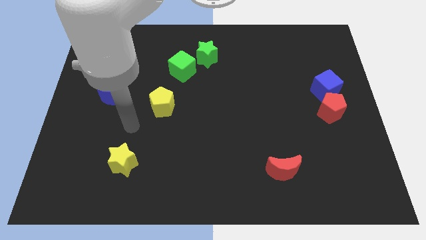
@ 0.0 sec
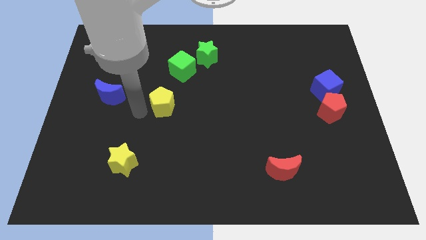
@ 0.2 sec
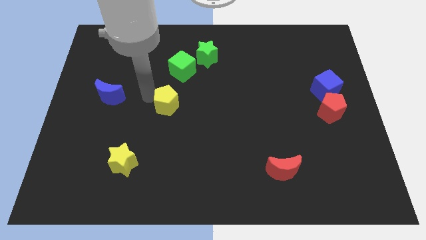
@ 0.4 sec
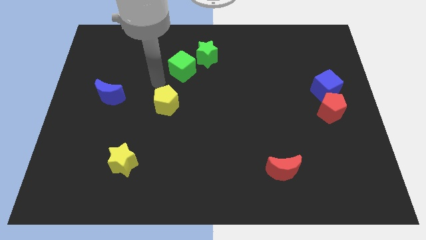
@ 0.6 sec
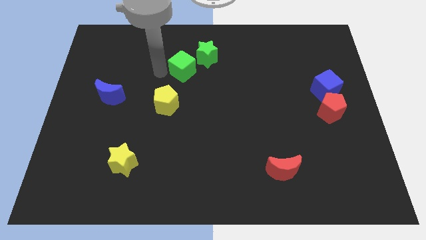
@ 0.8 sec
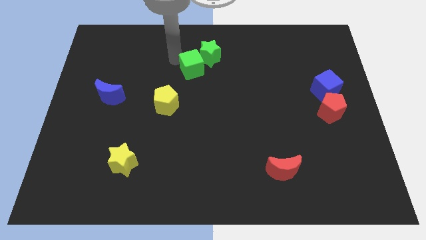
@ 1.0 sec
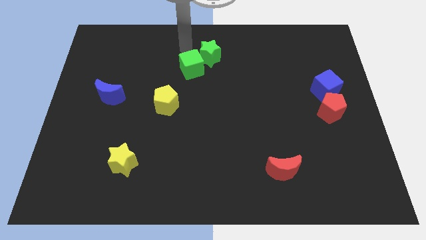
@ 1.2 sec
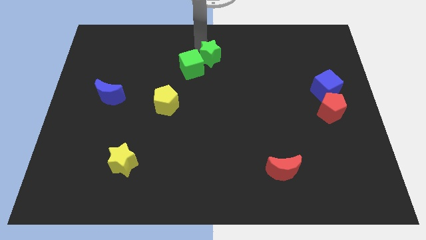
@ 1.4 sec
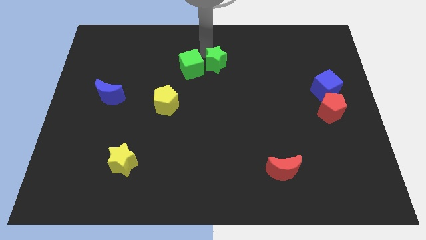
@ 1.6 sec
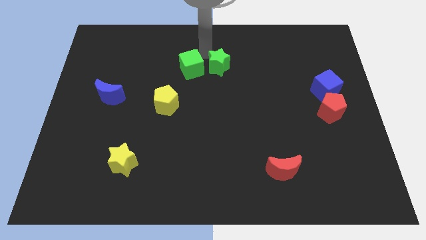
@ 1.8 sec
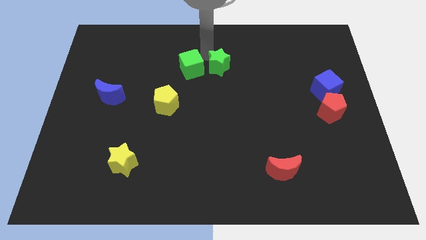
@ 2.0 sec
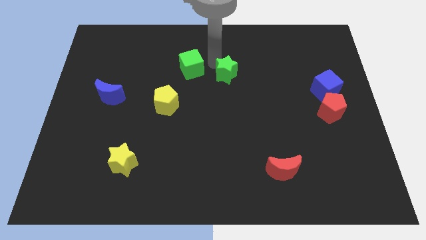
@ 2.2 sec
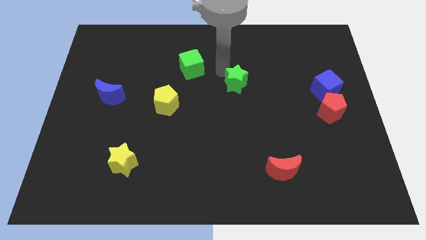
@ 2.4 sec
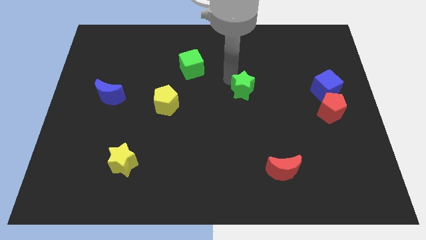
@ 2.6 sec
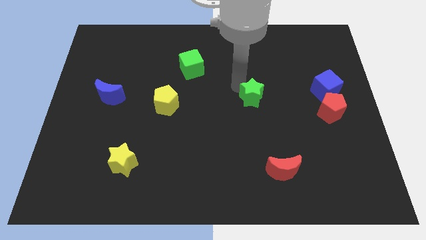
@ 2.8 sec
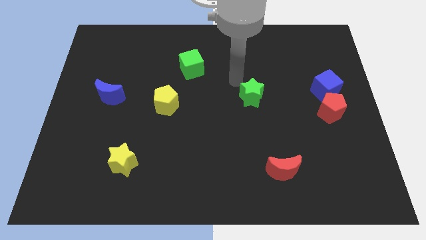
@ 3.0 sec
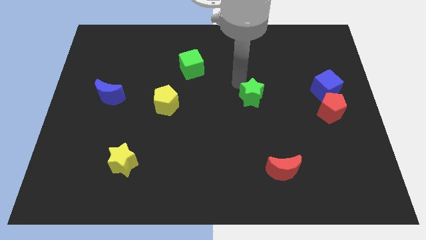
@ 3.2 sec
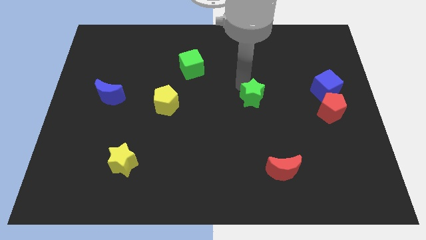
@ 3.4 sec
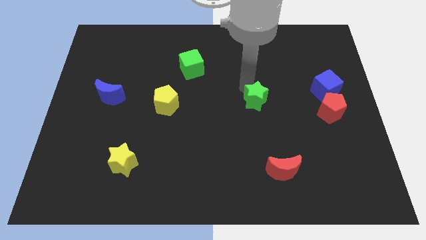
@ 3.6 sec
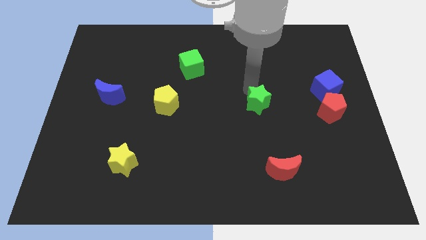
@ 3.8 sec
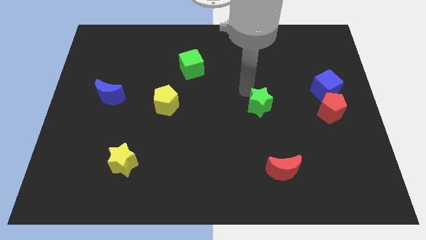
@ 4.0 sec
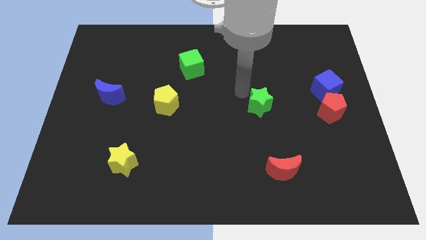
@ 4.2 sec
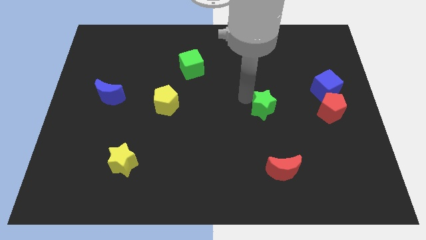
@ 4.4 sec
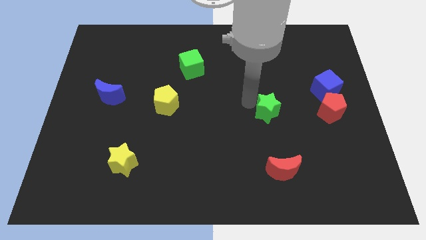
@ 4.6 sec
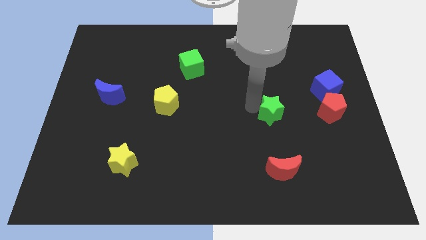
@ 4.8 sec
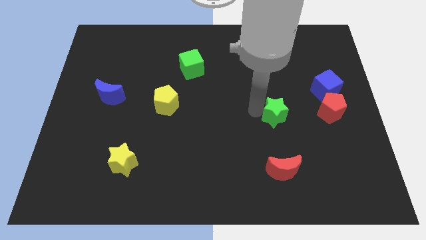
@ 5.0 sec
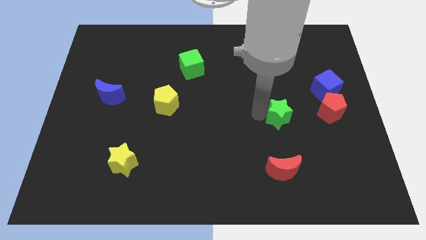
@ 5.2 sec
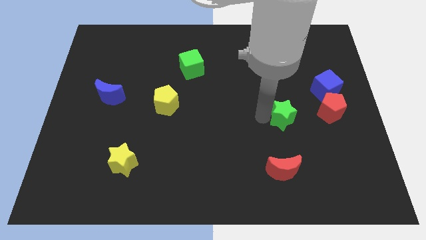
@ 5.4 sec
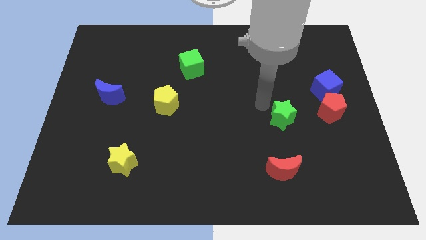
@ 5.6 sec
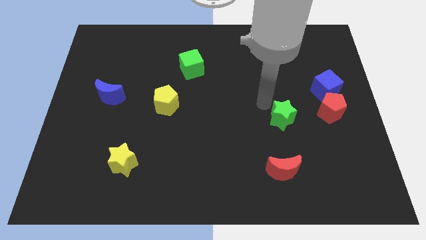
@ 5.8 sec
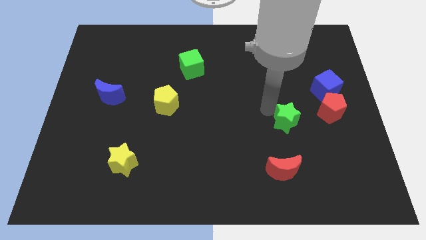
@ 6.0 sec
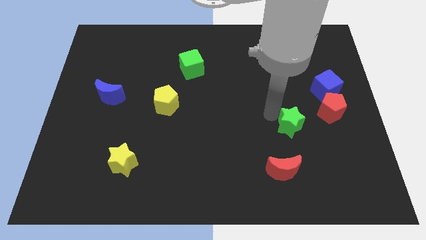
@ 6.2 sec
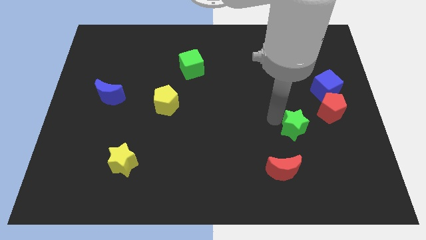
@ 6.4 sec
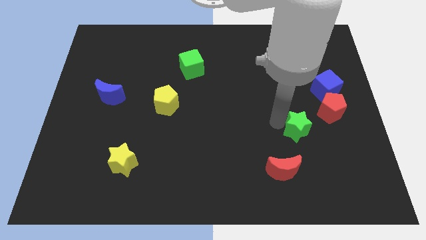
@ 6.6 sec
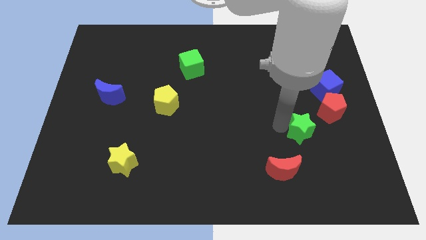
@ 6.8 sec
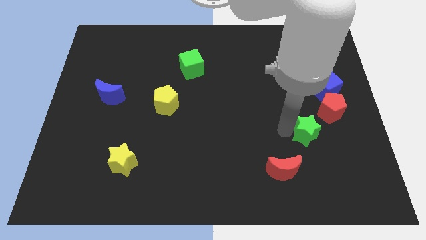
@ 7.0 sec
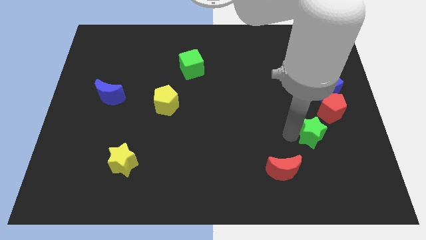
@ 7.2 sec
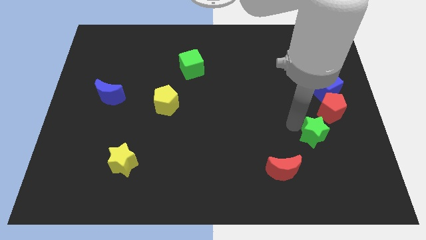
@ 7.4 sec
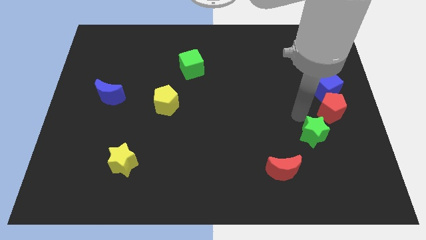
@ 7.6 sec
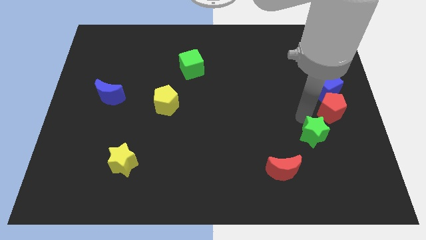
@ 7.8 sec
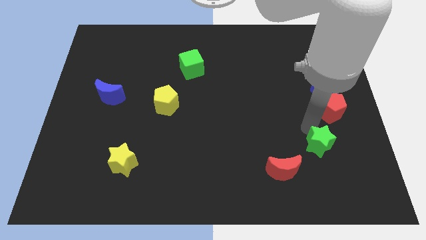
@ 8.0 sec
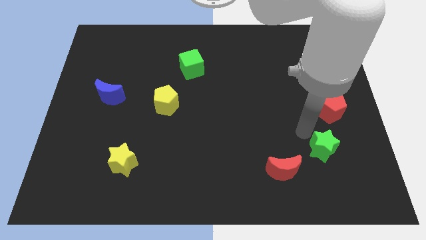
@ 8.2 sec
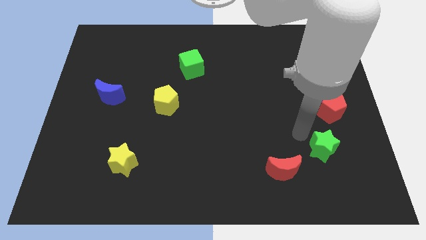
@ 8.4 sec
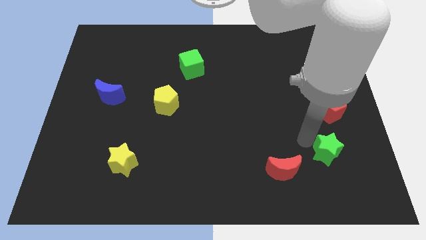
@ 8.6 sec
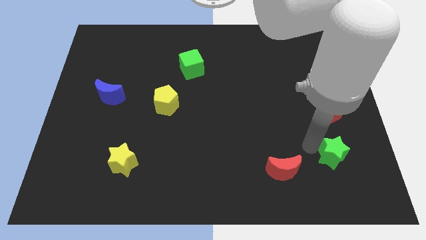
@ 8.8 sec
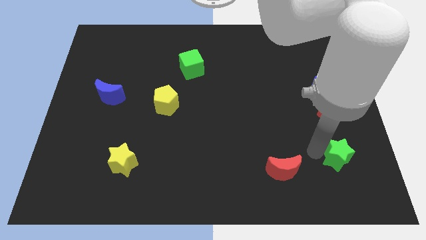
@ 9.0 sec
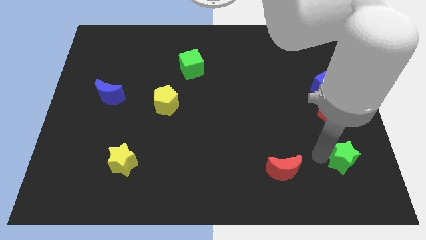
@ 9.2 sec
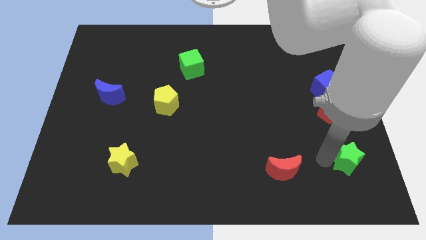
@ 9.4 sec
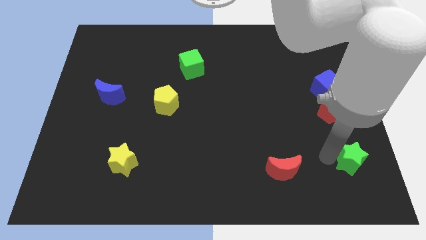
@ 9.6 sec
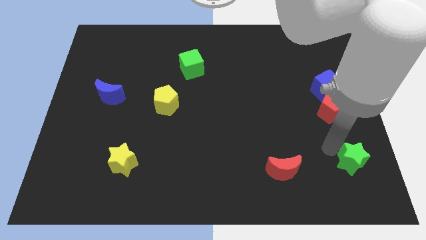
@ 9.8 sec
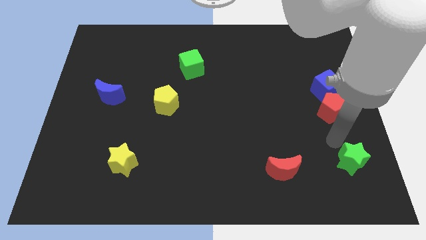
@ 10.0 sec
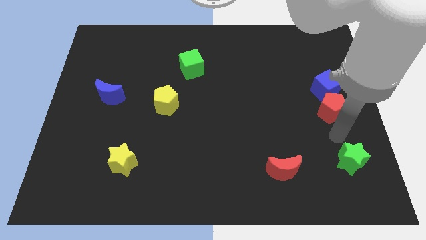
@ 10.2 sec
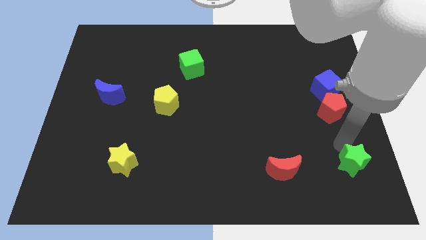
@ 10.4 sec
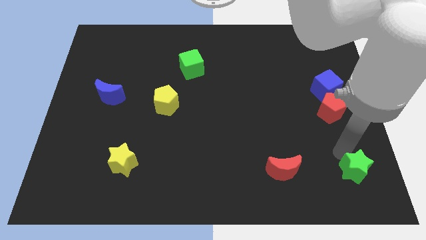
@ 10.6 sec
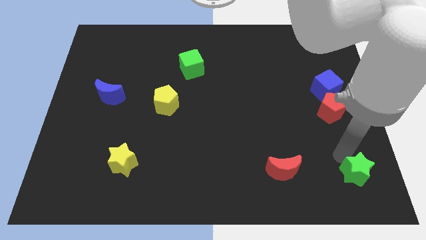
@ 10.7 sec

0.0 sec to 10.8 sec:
push the green star to the bottom right corner
